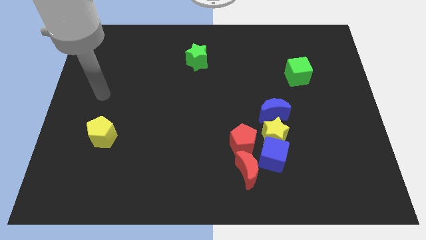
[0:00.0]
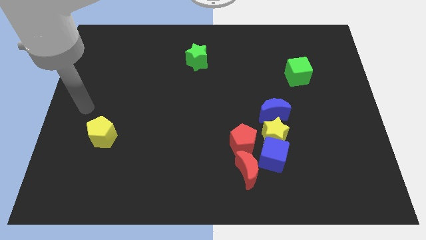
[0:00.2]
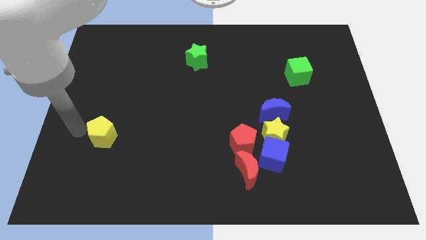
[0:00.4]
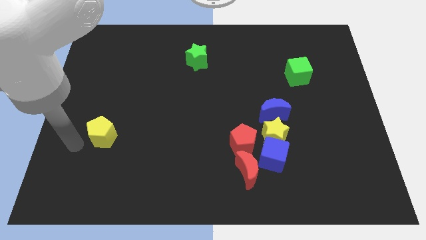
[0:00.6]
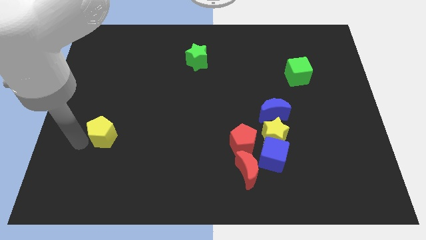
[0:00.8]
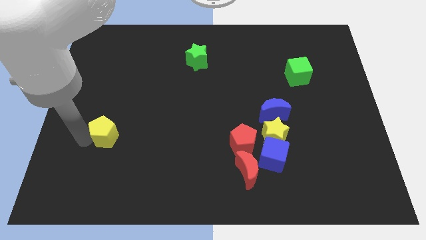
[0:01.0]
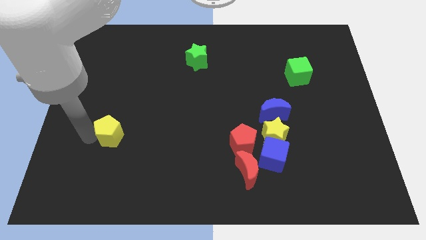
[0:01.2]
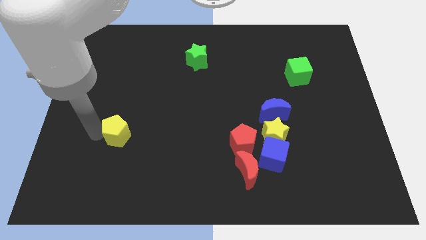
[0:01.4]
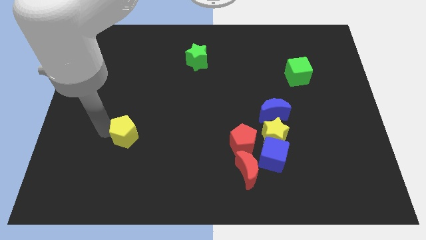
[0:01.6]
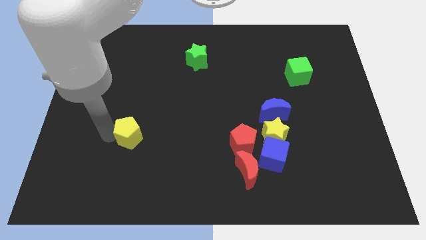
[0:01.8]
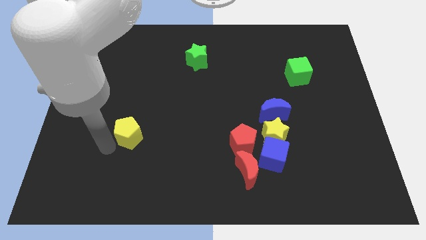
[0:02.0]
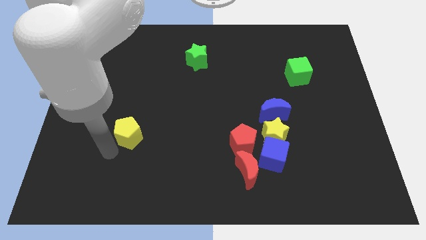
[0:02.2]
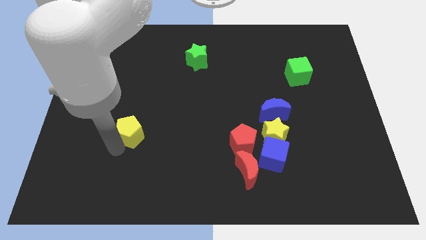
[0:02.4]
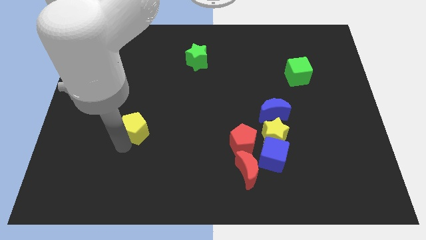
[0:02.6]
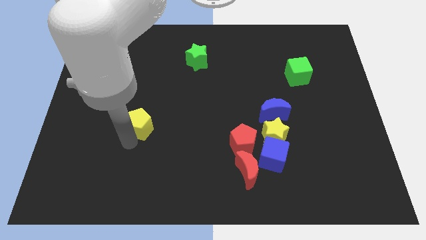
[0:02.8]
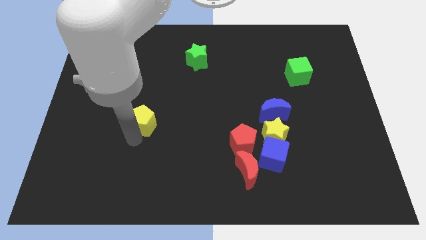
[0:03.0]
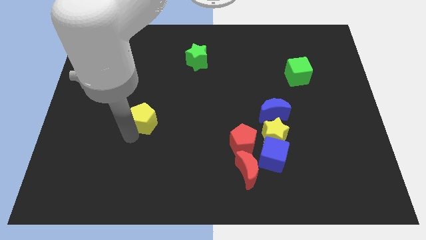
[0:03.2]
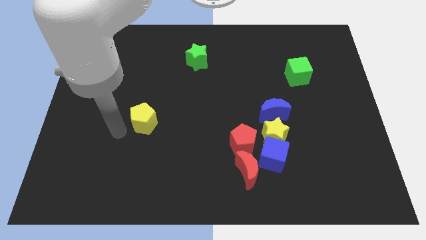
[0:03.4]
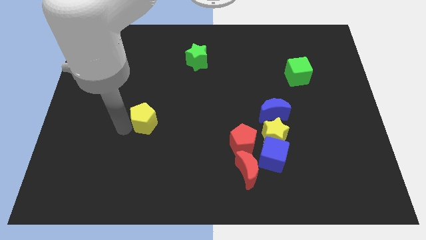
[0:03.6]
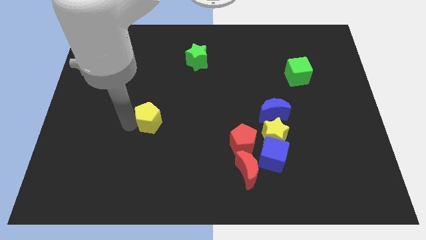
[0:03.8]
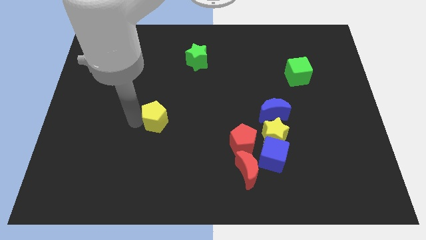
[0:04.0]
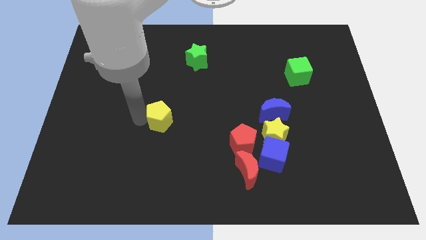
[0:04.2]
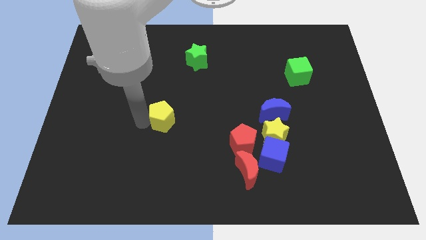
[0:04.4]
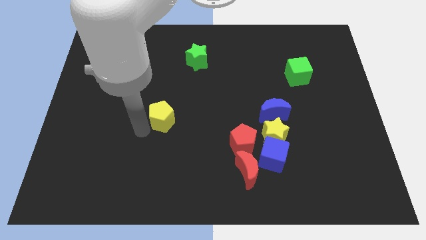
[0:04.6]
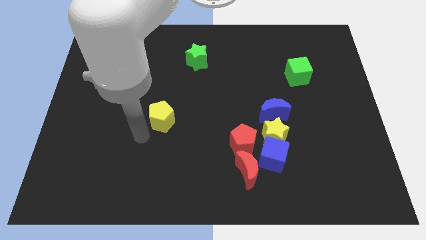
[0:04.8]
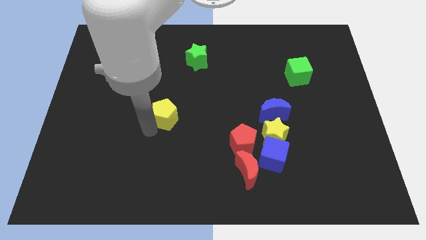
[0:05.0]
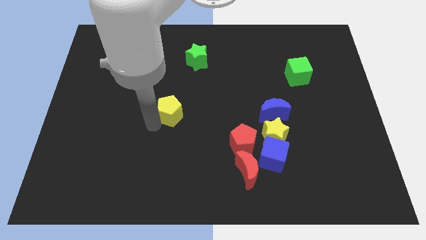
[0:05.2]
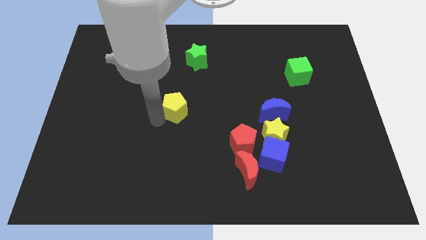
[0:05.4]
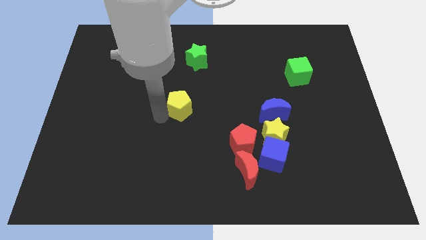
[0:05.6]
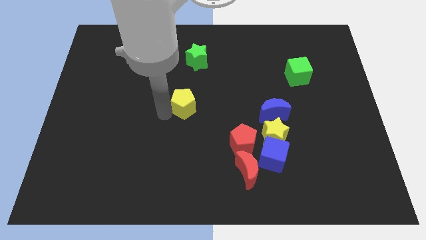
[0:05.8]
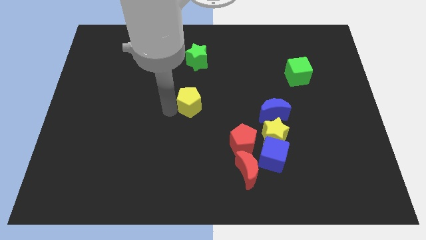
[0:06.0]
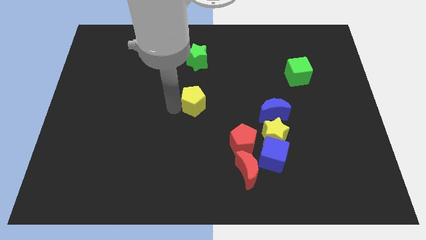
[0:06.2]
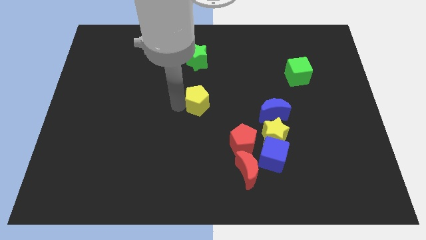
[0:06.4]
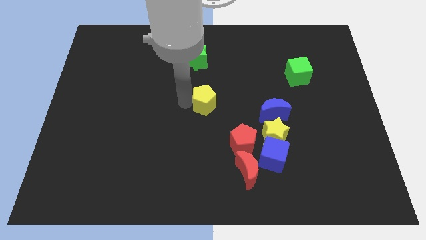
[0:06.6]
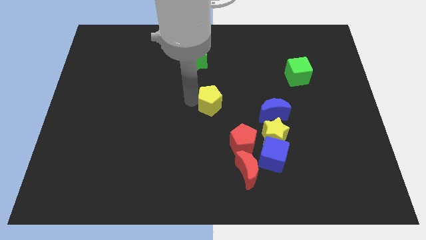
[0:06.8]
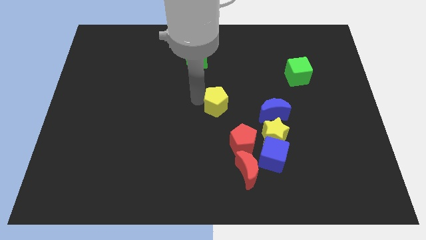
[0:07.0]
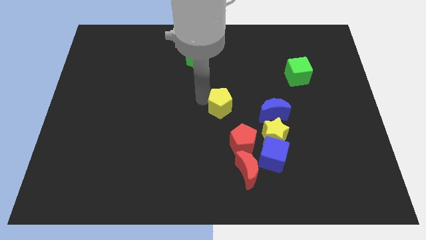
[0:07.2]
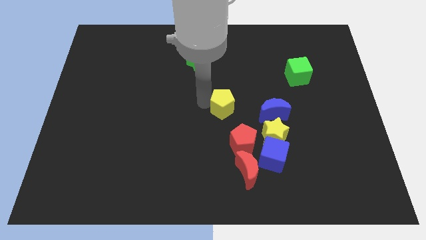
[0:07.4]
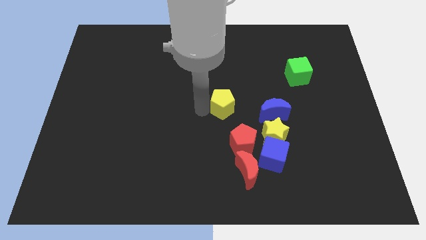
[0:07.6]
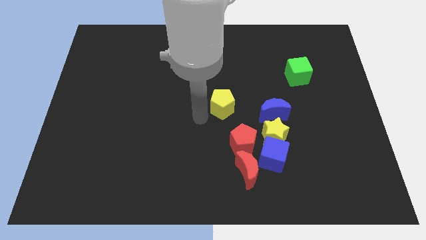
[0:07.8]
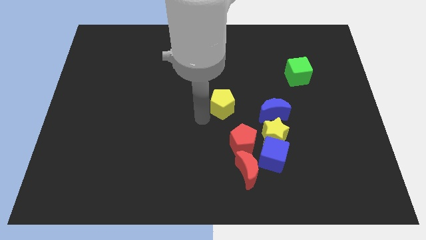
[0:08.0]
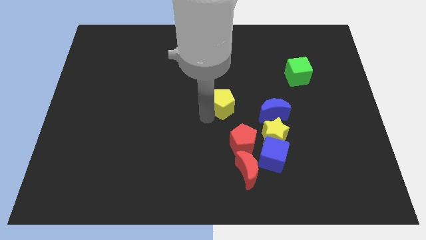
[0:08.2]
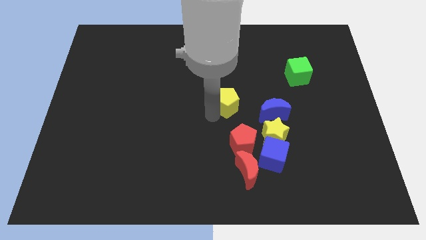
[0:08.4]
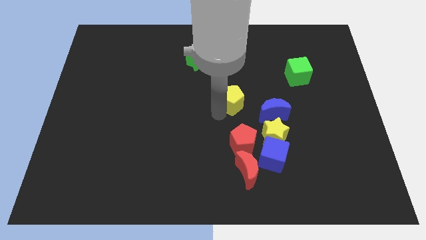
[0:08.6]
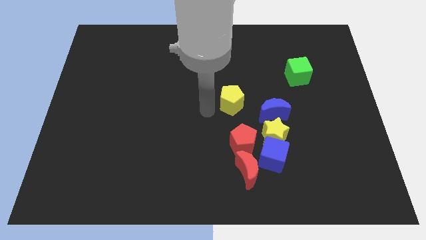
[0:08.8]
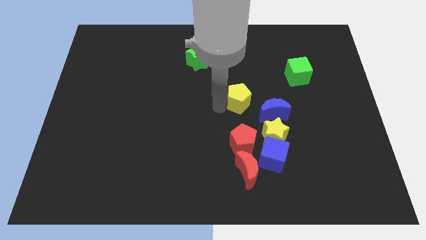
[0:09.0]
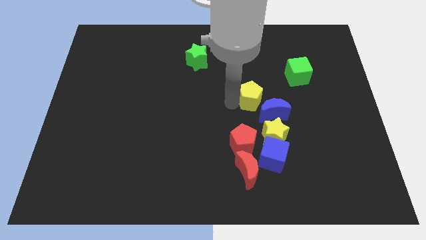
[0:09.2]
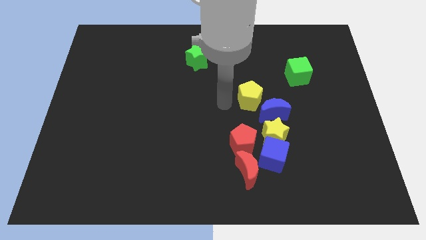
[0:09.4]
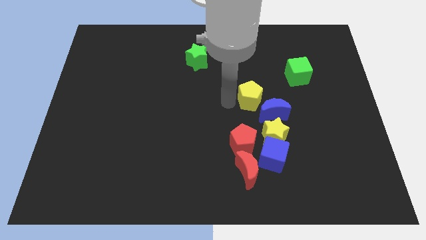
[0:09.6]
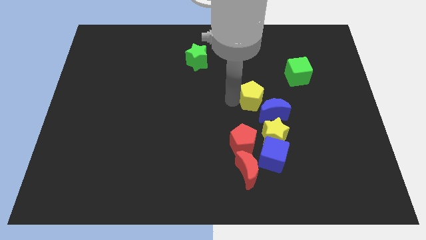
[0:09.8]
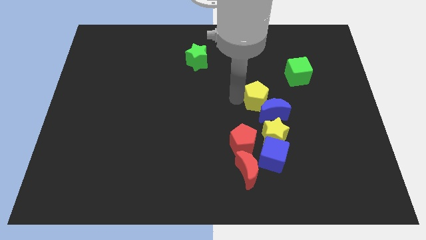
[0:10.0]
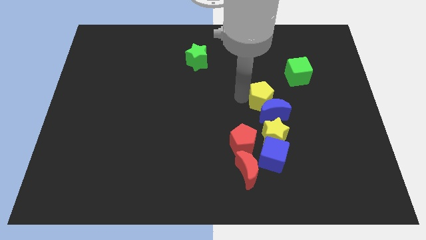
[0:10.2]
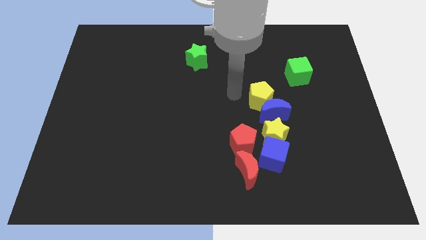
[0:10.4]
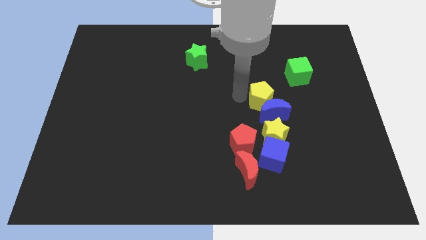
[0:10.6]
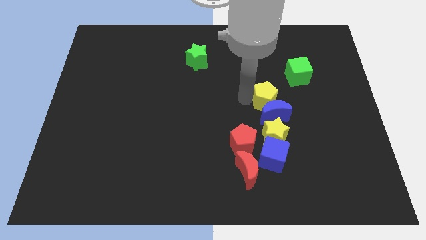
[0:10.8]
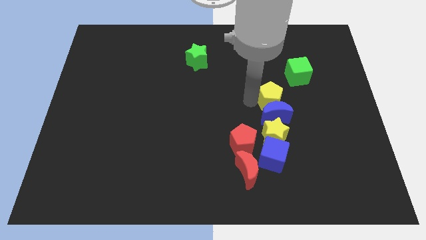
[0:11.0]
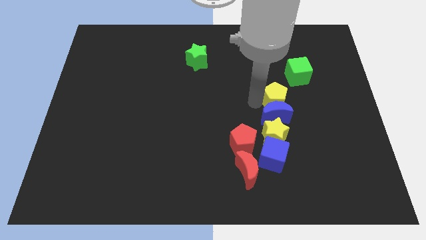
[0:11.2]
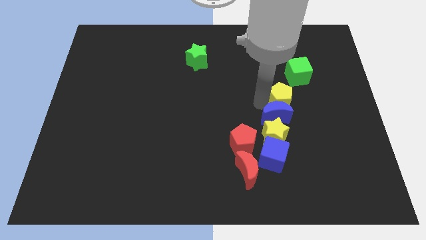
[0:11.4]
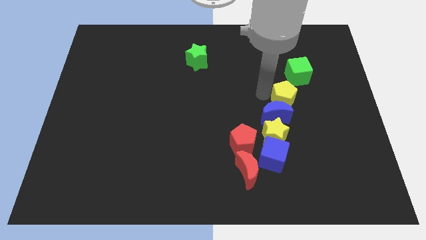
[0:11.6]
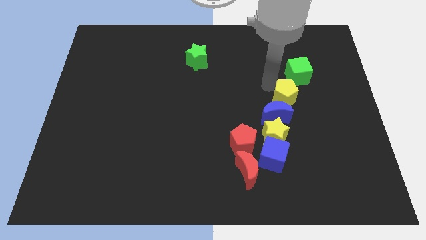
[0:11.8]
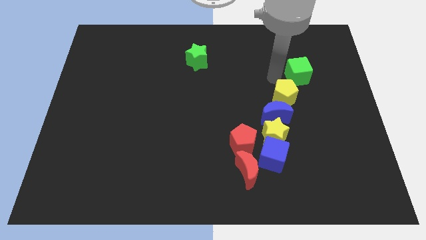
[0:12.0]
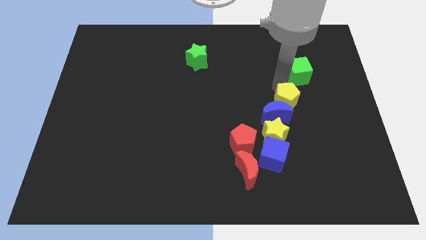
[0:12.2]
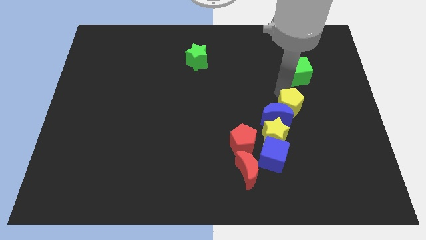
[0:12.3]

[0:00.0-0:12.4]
move the yellow pentagon to the top right side of the yellow star
